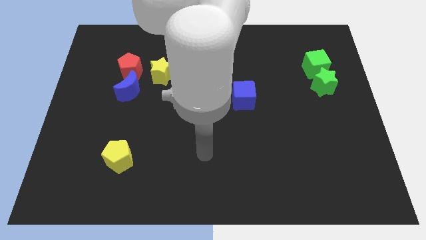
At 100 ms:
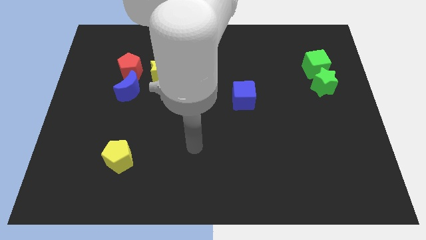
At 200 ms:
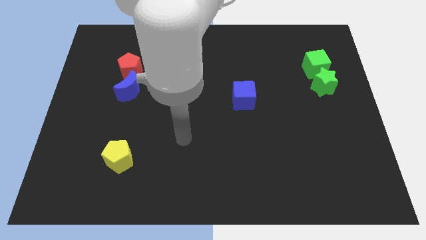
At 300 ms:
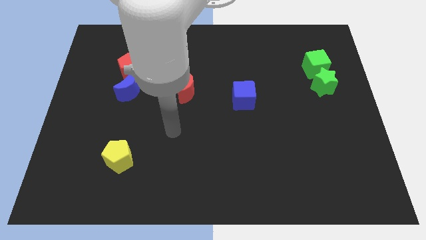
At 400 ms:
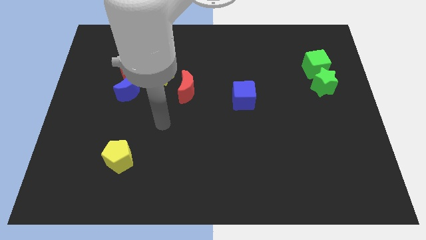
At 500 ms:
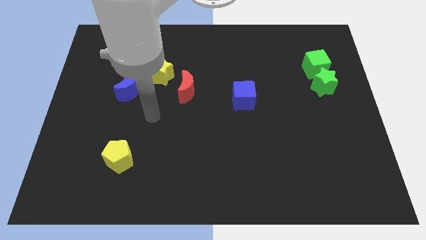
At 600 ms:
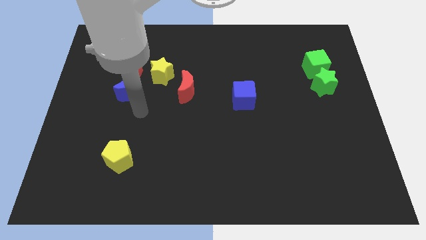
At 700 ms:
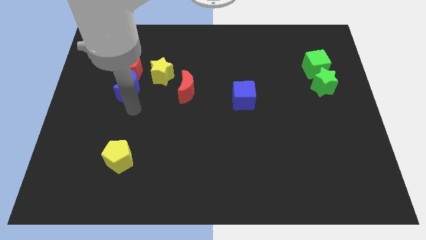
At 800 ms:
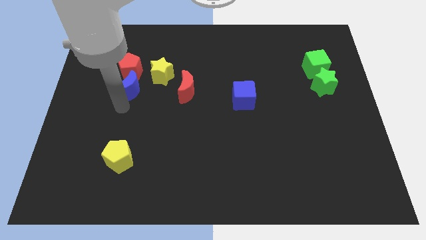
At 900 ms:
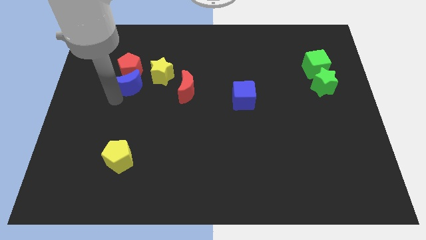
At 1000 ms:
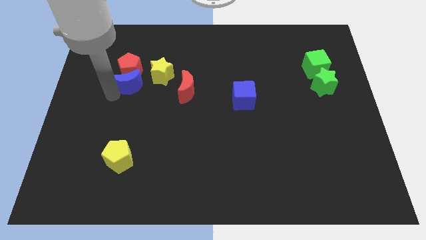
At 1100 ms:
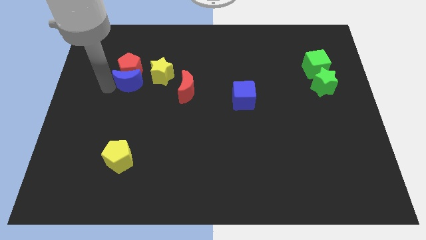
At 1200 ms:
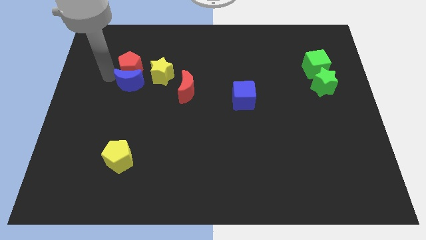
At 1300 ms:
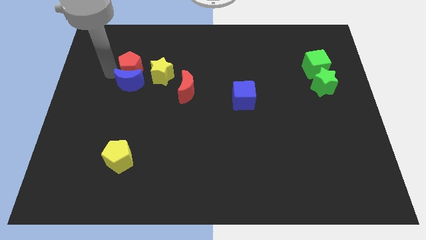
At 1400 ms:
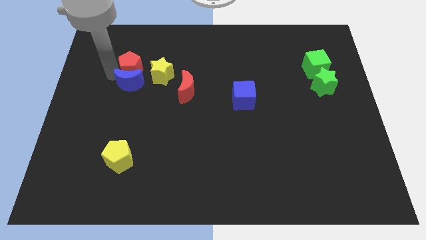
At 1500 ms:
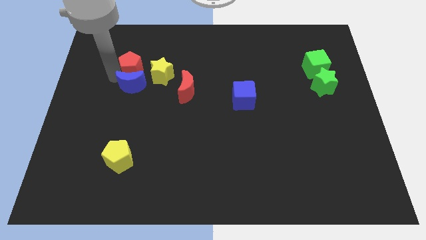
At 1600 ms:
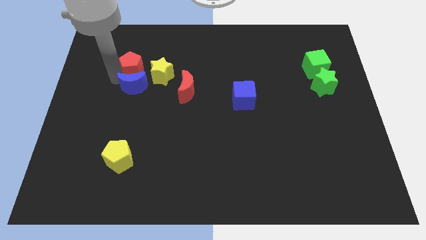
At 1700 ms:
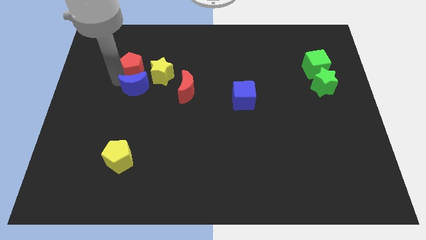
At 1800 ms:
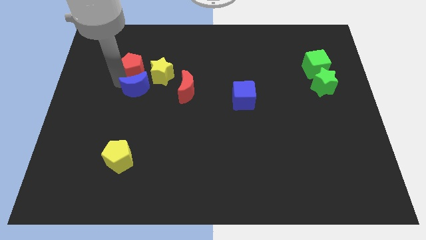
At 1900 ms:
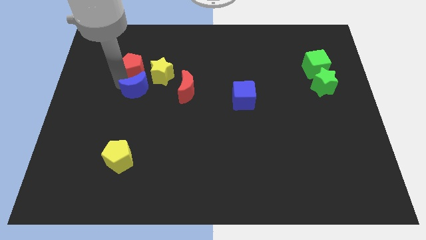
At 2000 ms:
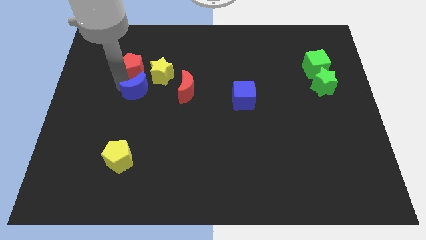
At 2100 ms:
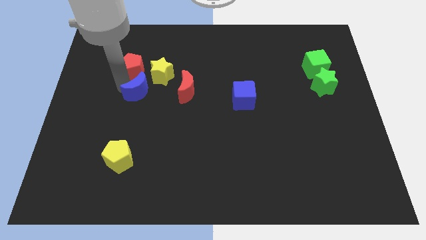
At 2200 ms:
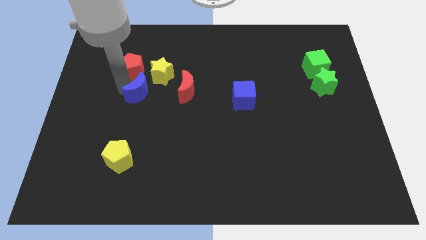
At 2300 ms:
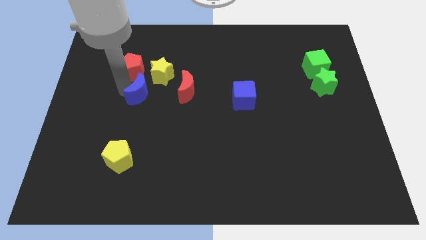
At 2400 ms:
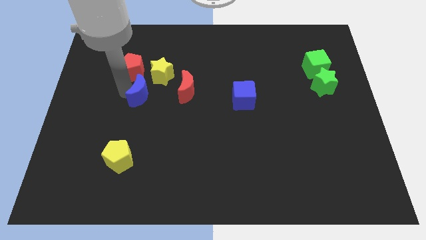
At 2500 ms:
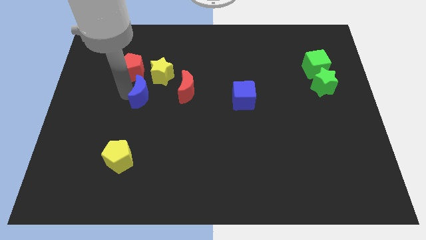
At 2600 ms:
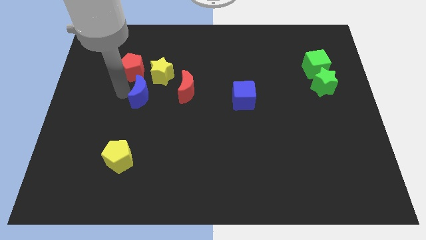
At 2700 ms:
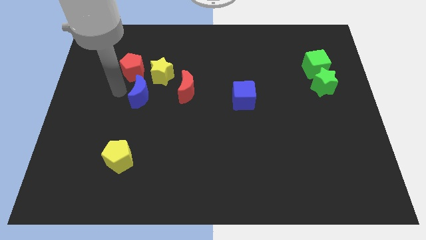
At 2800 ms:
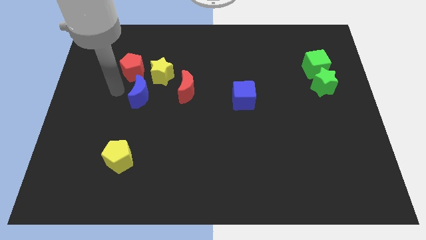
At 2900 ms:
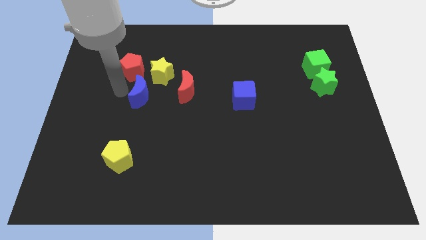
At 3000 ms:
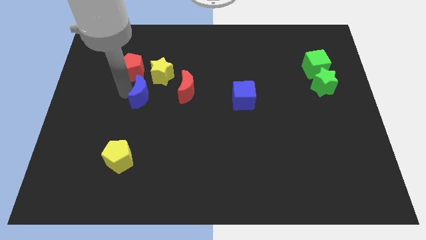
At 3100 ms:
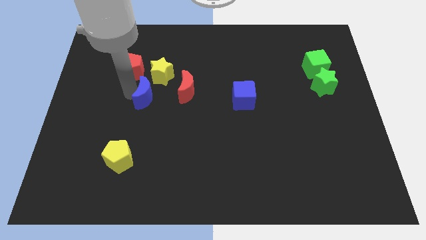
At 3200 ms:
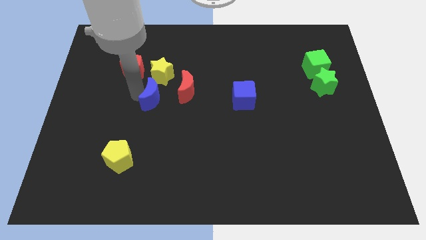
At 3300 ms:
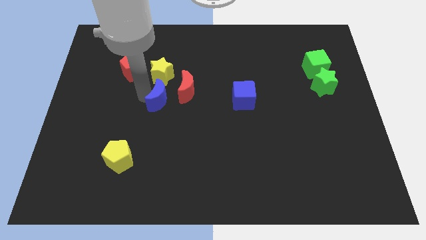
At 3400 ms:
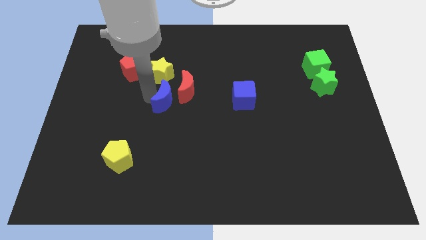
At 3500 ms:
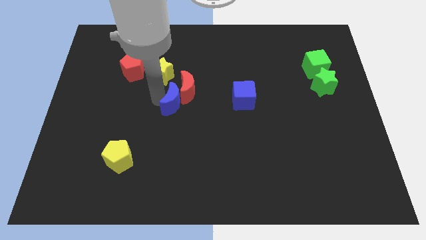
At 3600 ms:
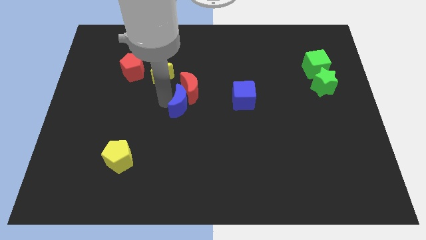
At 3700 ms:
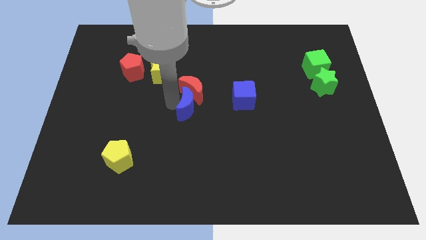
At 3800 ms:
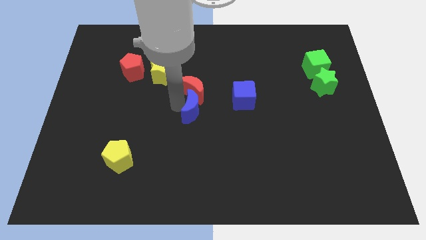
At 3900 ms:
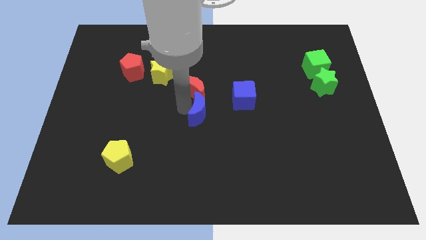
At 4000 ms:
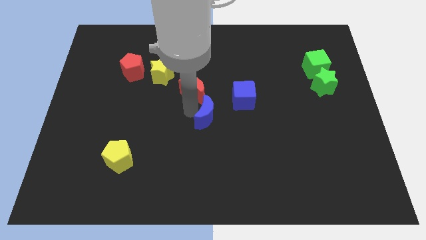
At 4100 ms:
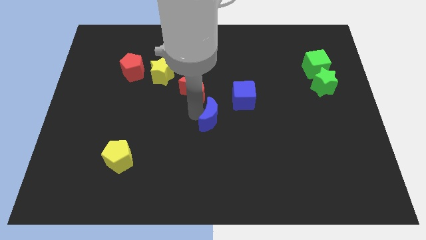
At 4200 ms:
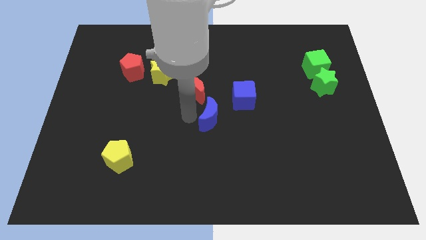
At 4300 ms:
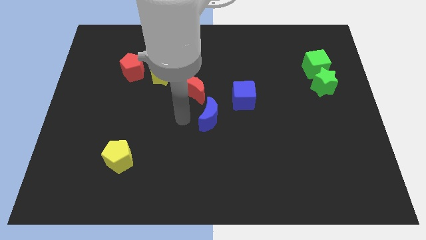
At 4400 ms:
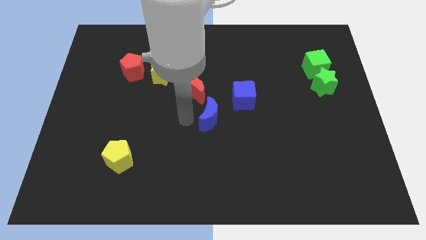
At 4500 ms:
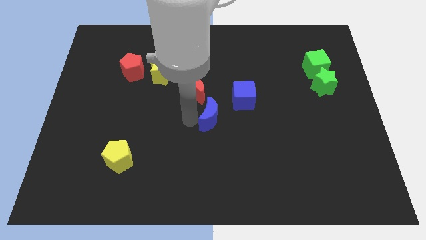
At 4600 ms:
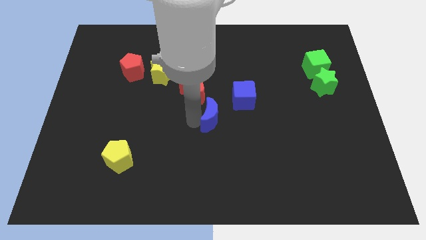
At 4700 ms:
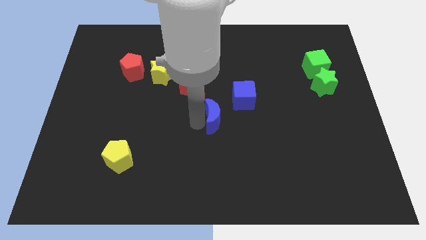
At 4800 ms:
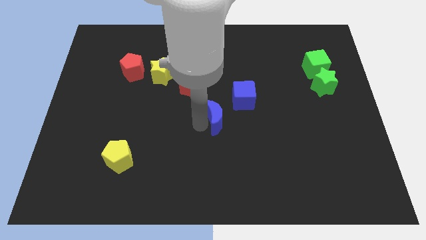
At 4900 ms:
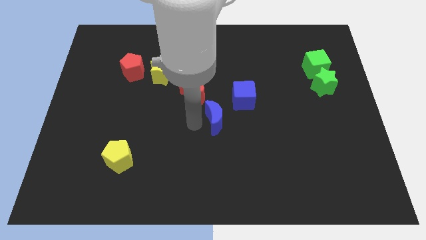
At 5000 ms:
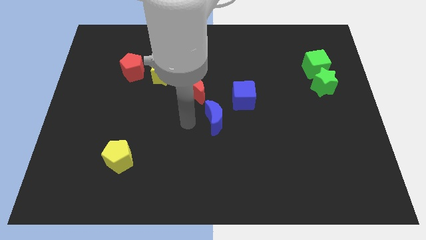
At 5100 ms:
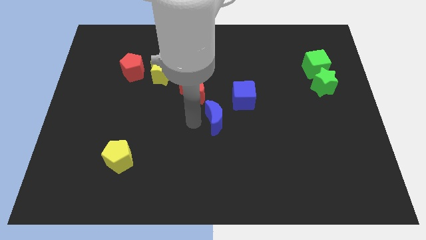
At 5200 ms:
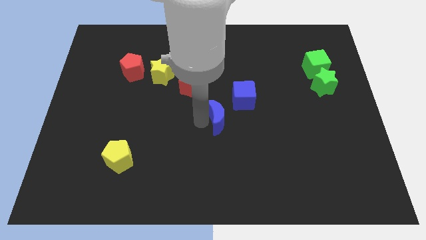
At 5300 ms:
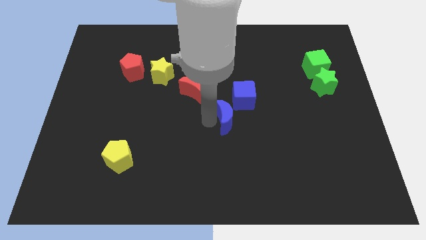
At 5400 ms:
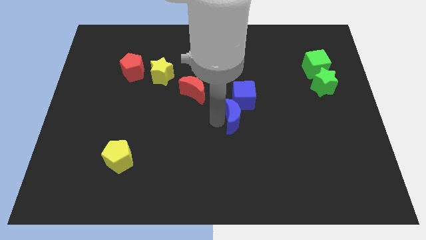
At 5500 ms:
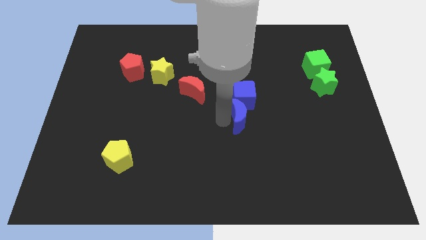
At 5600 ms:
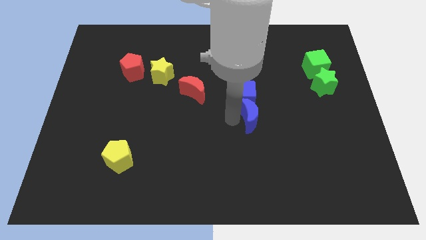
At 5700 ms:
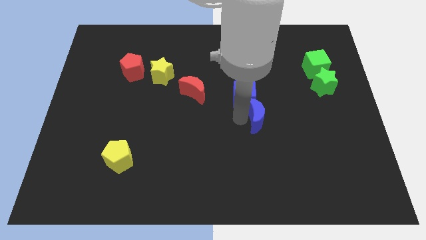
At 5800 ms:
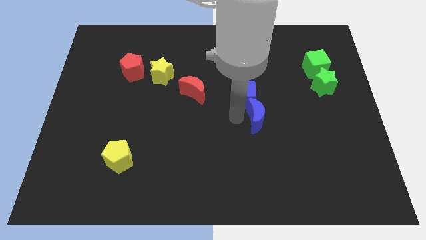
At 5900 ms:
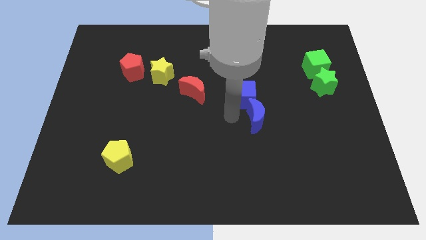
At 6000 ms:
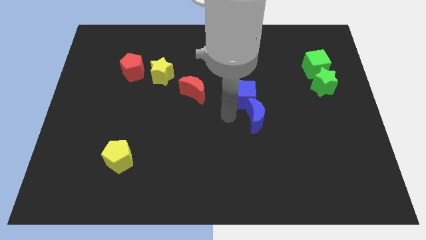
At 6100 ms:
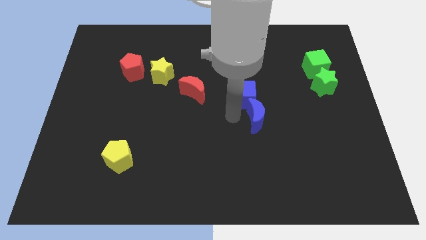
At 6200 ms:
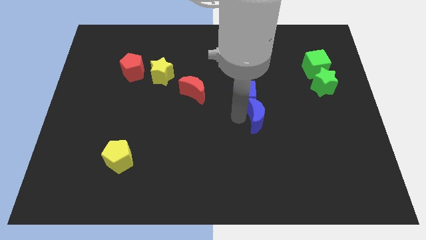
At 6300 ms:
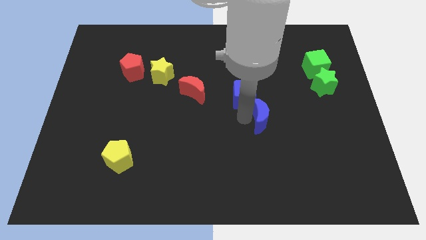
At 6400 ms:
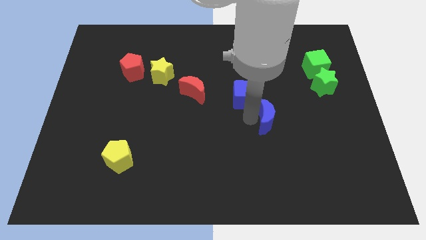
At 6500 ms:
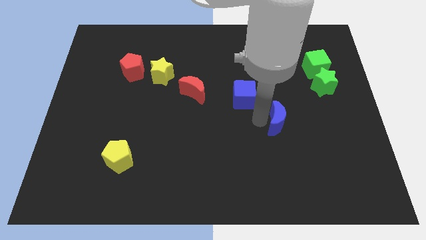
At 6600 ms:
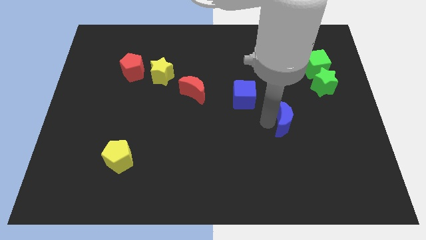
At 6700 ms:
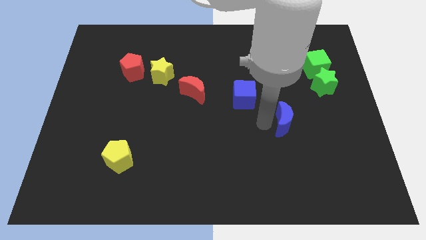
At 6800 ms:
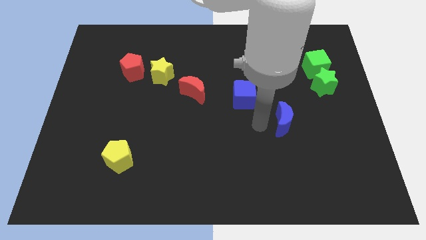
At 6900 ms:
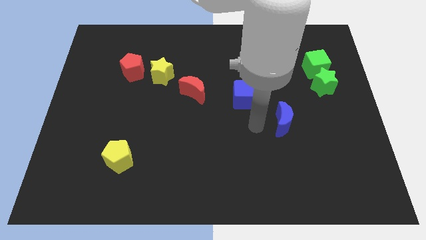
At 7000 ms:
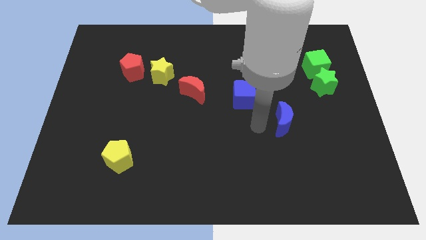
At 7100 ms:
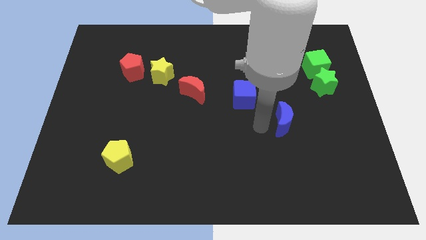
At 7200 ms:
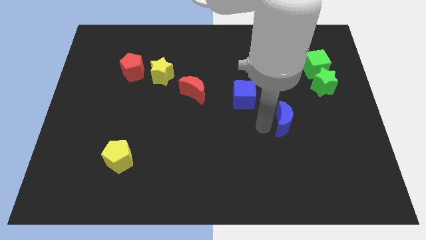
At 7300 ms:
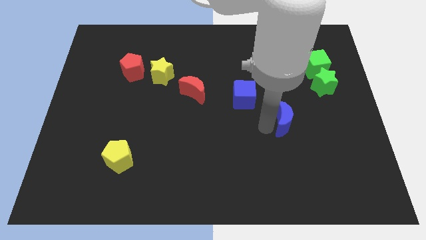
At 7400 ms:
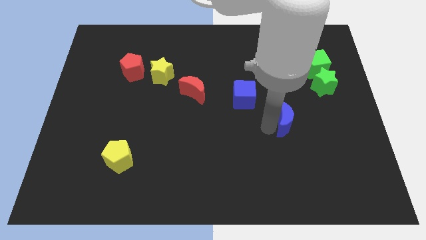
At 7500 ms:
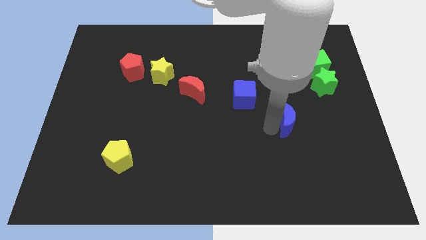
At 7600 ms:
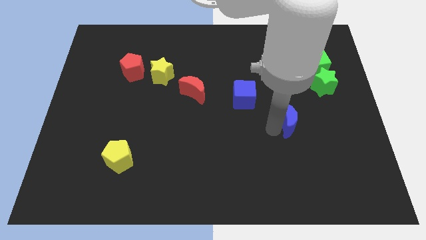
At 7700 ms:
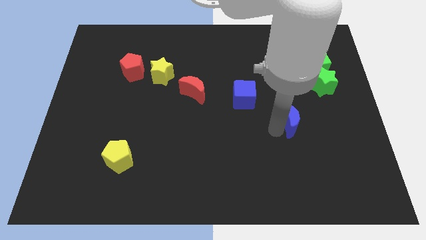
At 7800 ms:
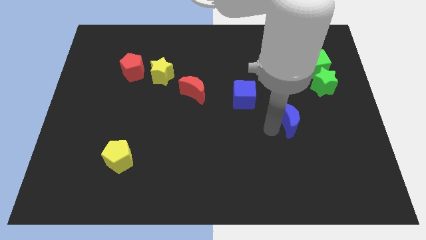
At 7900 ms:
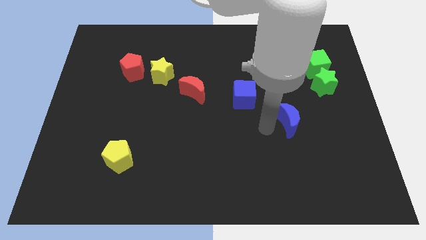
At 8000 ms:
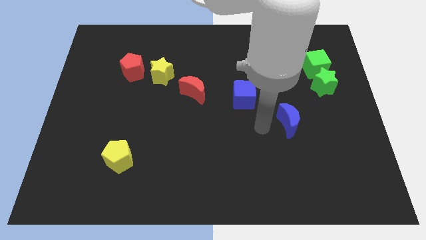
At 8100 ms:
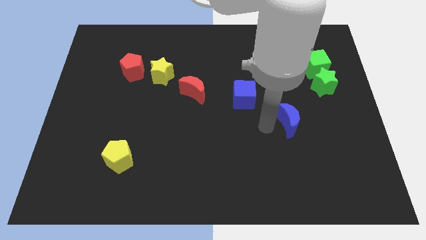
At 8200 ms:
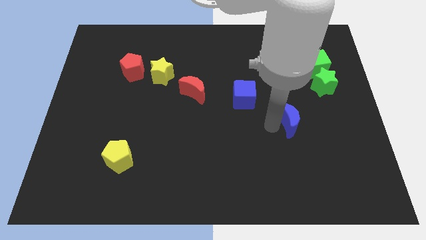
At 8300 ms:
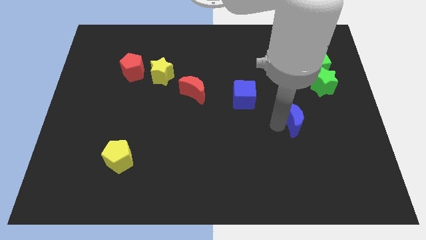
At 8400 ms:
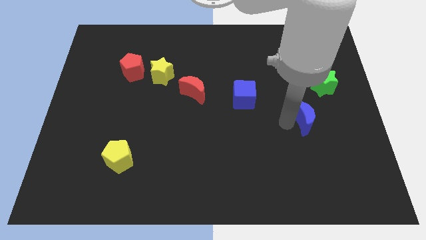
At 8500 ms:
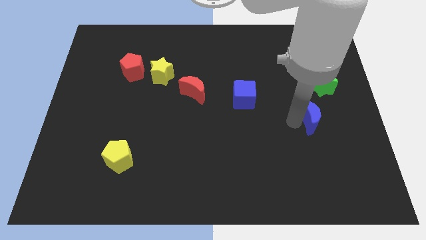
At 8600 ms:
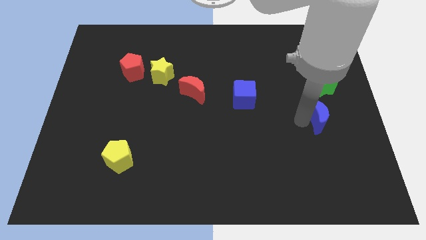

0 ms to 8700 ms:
move the blue moon to the bottom of the green star
